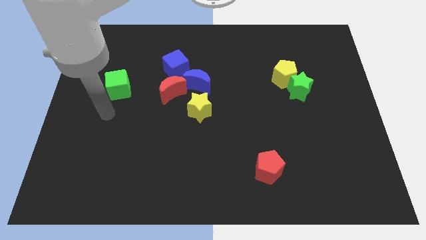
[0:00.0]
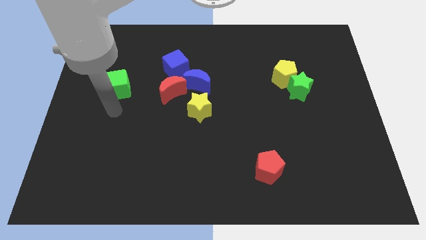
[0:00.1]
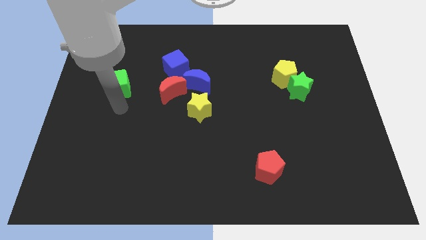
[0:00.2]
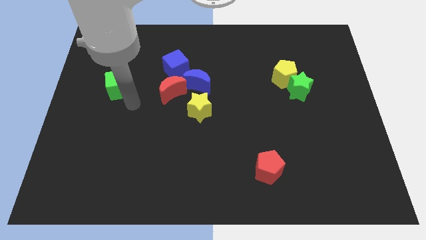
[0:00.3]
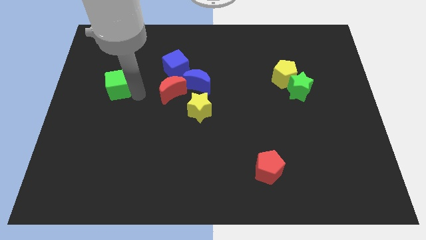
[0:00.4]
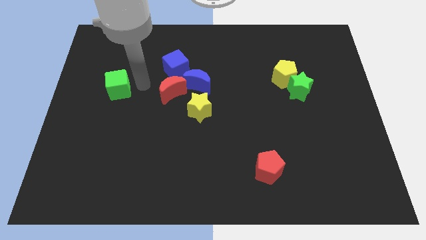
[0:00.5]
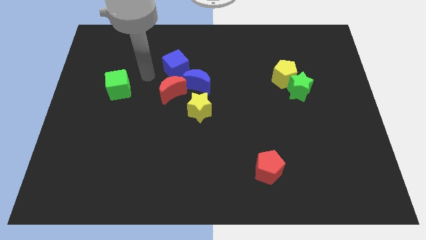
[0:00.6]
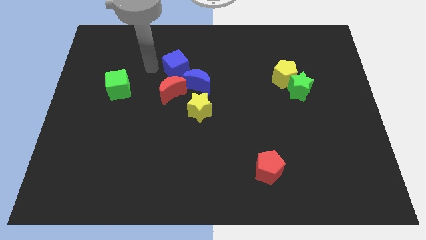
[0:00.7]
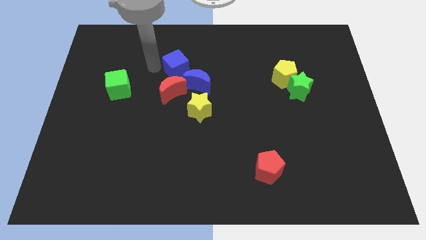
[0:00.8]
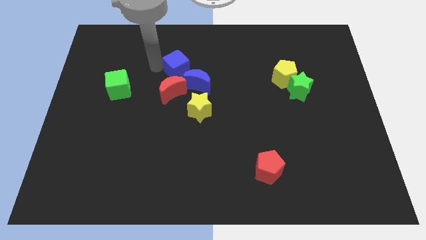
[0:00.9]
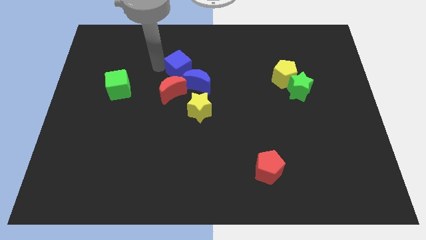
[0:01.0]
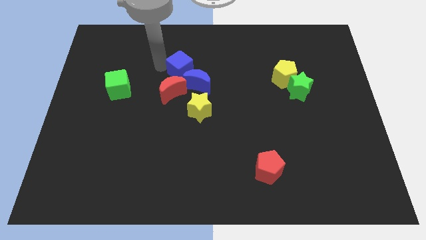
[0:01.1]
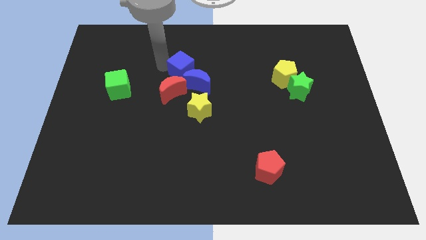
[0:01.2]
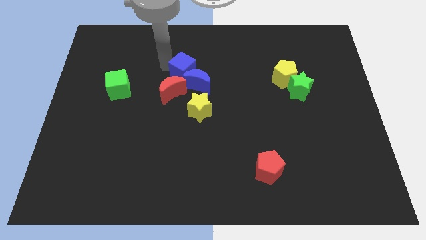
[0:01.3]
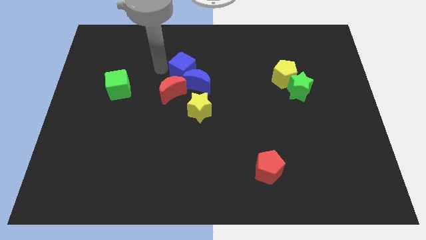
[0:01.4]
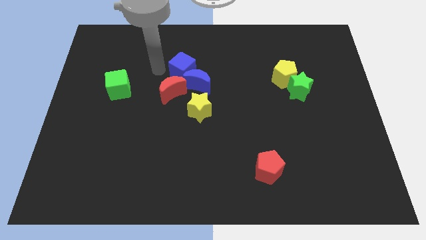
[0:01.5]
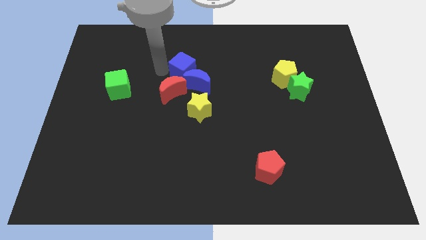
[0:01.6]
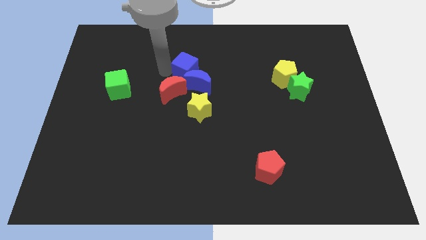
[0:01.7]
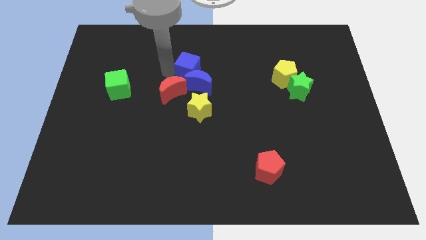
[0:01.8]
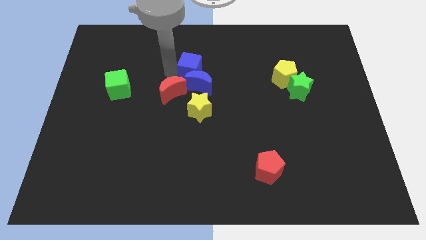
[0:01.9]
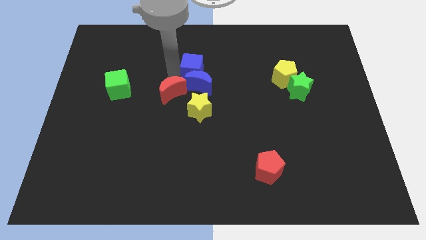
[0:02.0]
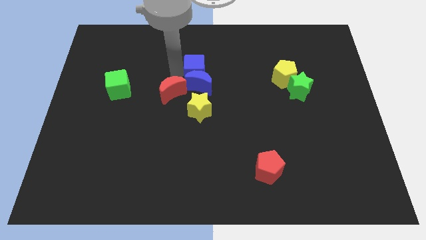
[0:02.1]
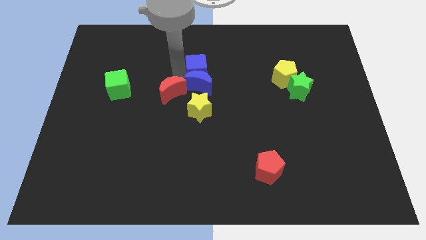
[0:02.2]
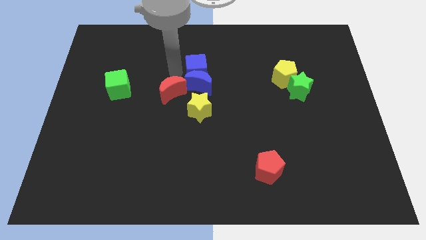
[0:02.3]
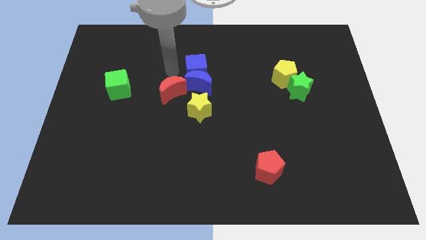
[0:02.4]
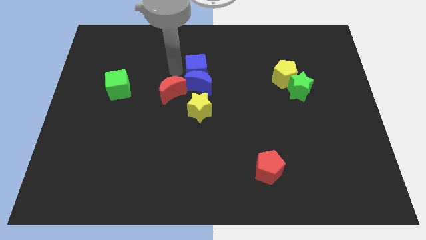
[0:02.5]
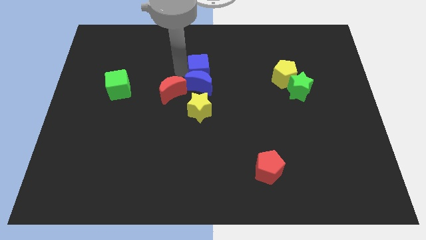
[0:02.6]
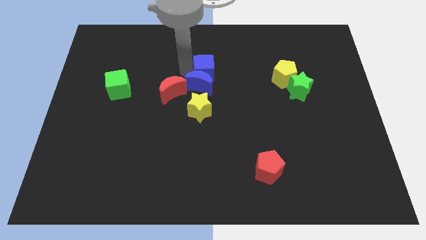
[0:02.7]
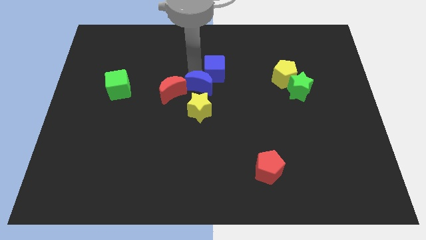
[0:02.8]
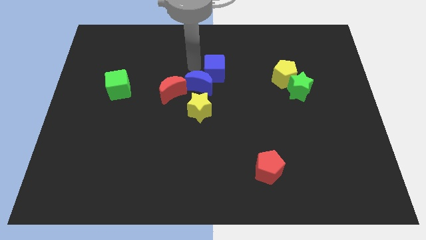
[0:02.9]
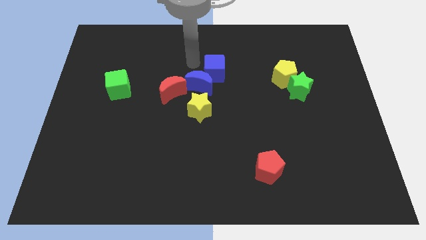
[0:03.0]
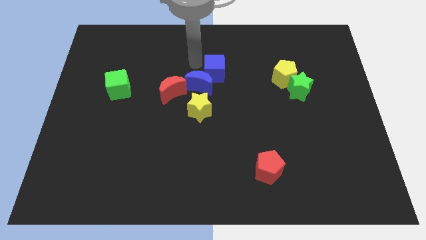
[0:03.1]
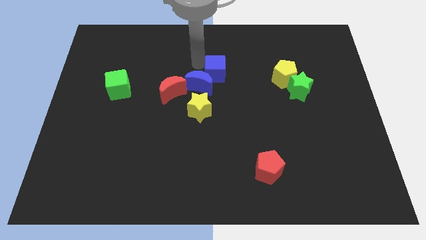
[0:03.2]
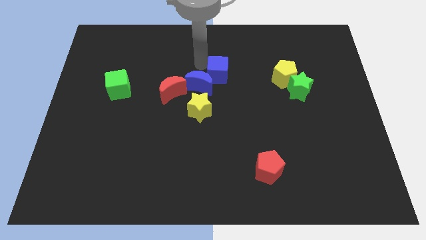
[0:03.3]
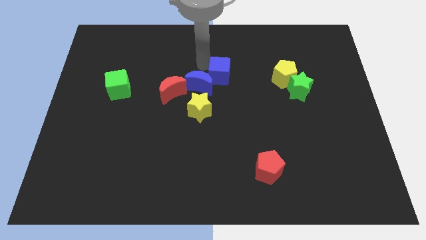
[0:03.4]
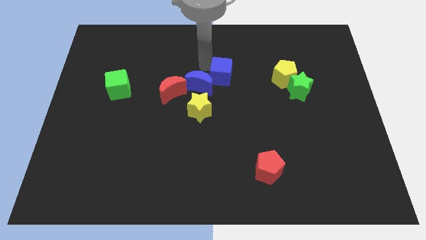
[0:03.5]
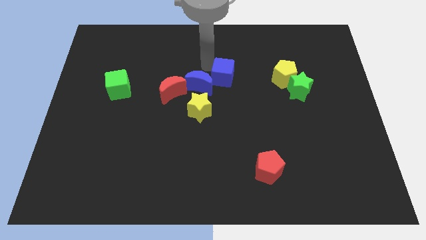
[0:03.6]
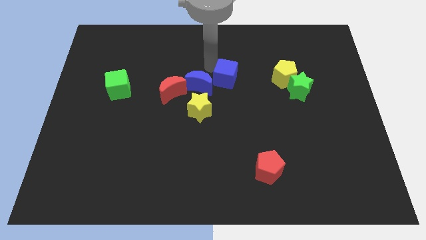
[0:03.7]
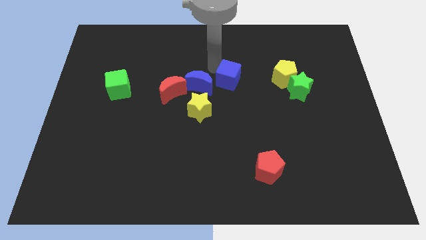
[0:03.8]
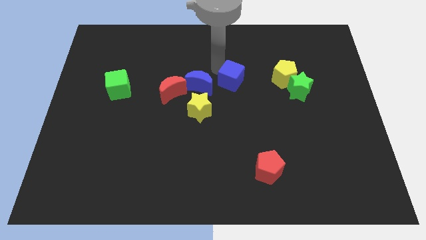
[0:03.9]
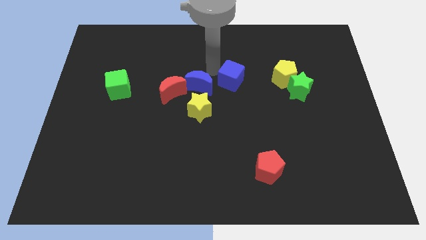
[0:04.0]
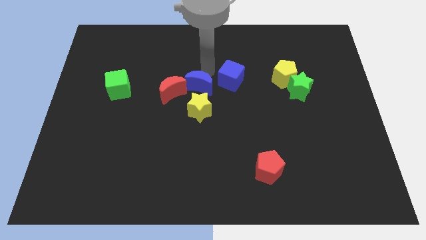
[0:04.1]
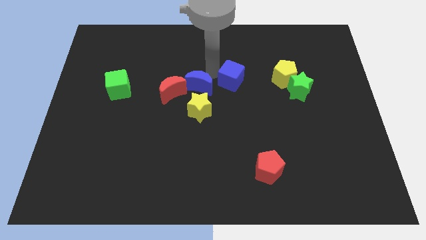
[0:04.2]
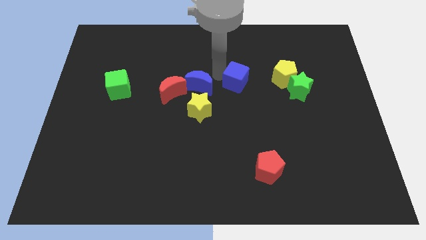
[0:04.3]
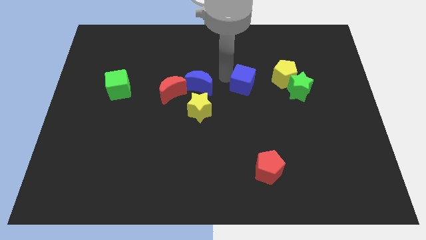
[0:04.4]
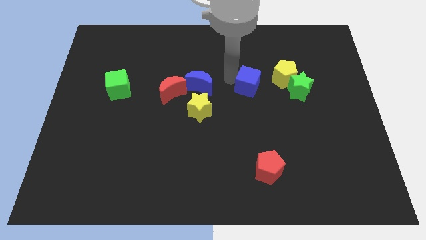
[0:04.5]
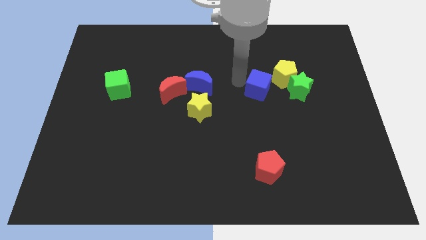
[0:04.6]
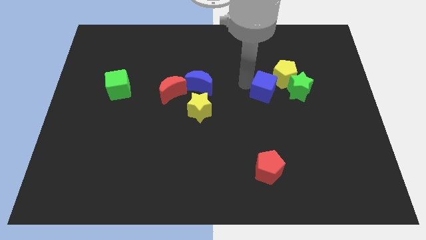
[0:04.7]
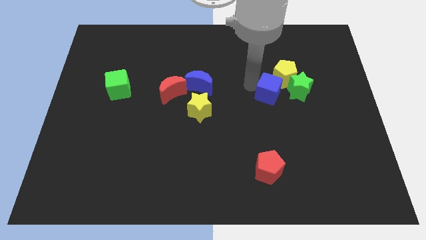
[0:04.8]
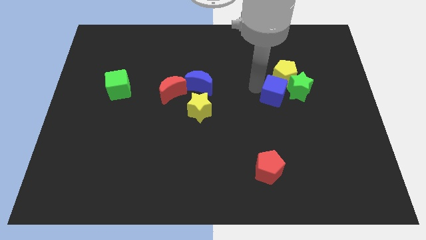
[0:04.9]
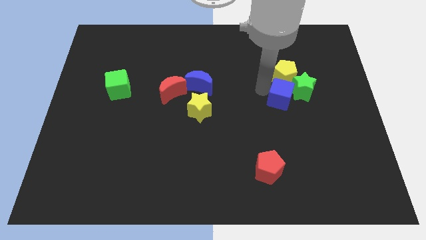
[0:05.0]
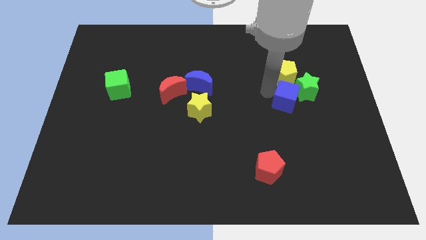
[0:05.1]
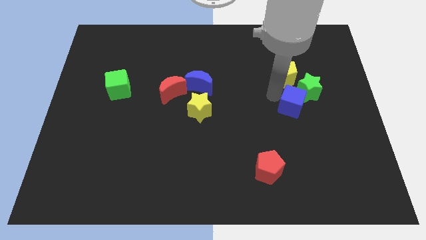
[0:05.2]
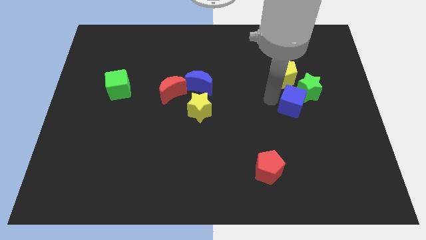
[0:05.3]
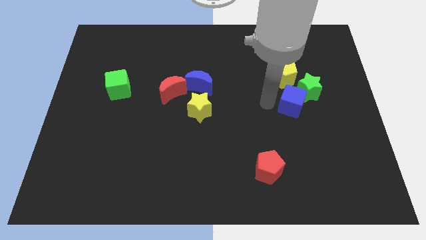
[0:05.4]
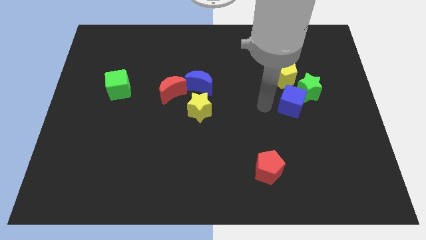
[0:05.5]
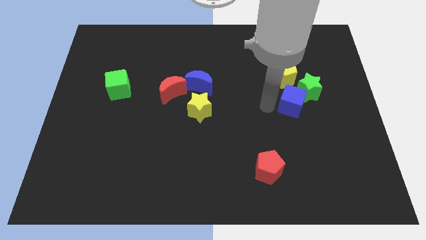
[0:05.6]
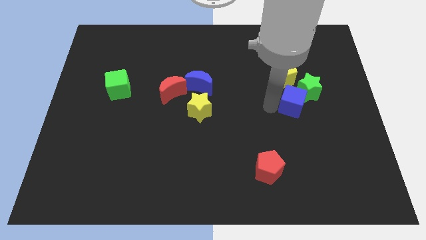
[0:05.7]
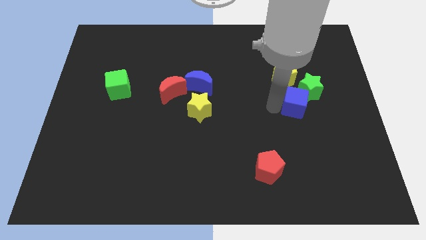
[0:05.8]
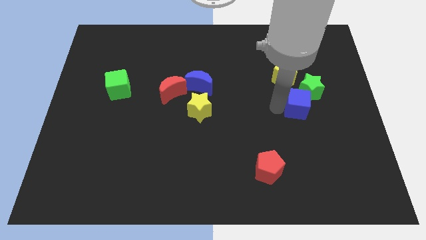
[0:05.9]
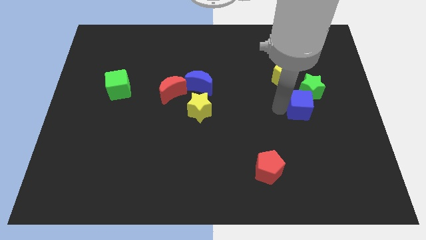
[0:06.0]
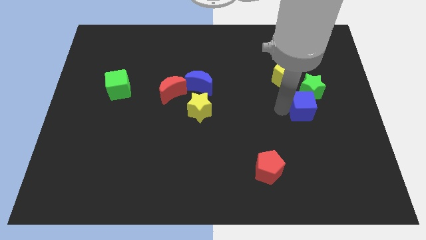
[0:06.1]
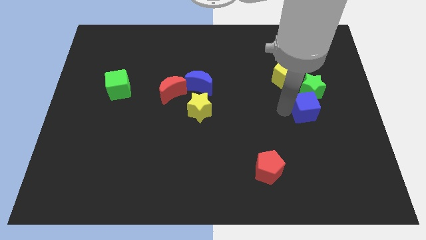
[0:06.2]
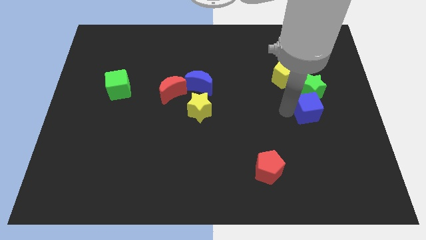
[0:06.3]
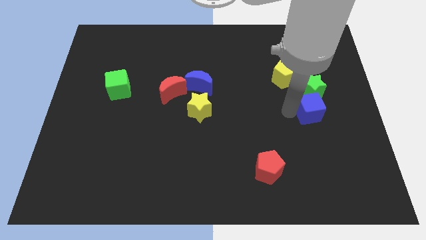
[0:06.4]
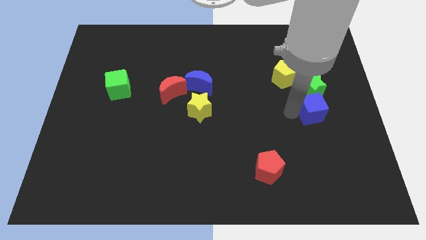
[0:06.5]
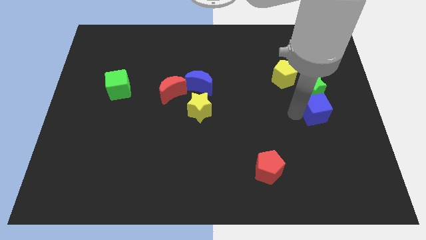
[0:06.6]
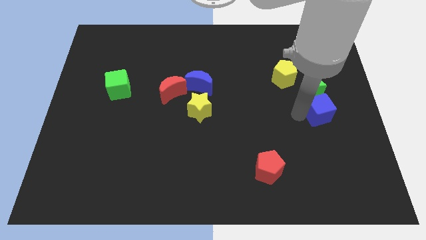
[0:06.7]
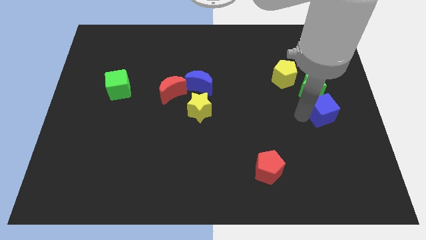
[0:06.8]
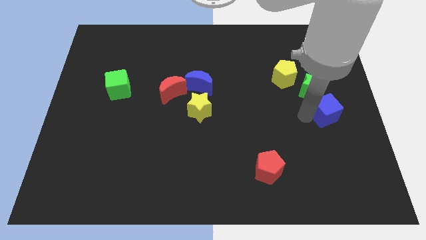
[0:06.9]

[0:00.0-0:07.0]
slide the blue cube to the right side of the board

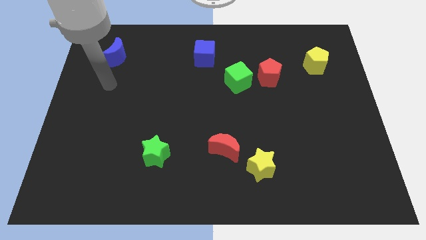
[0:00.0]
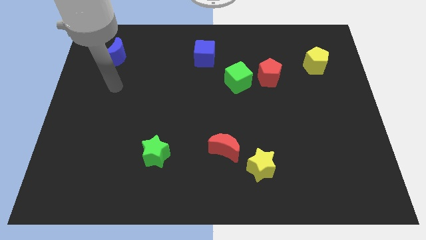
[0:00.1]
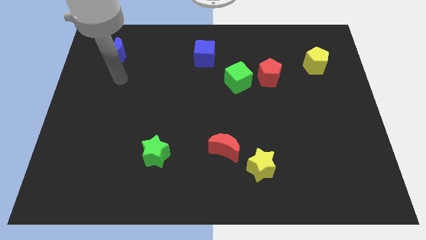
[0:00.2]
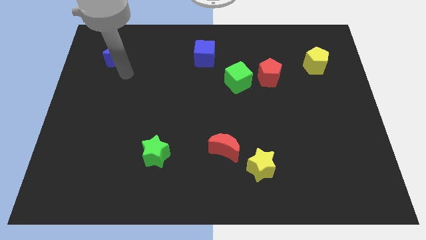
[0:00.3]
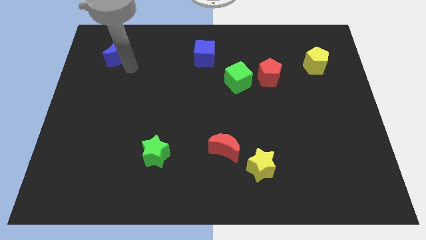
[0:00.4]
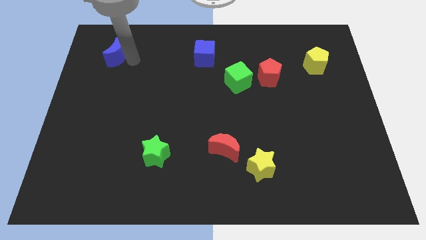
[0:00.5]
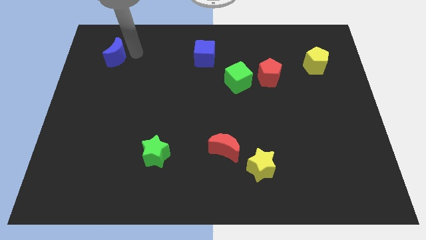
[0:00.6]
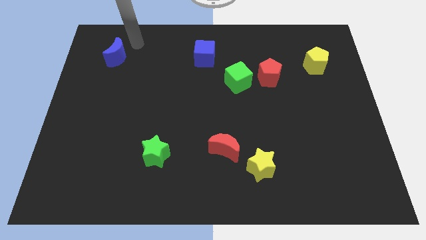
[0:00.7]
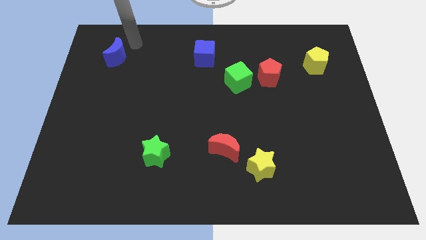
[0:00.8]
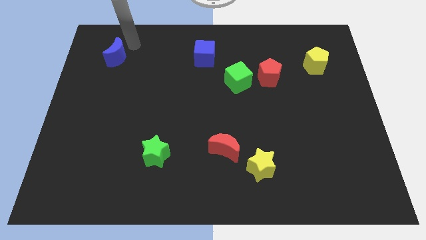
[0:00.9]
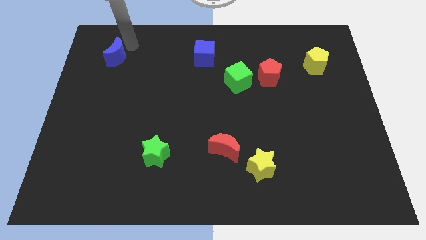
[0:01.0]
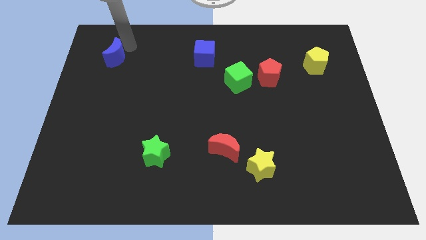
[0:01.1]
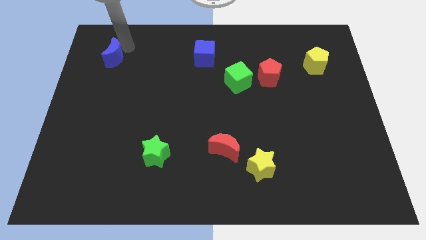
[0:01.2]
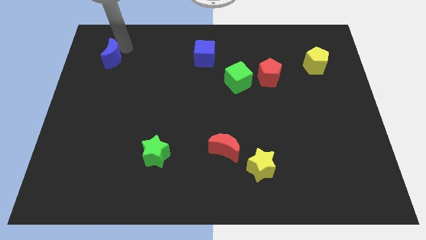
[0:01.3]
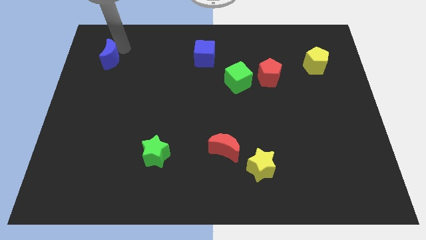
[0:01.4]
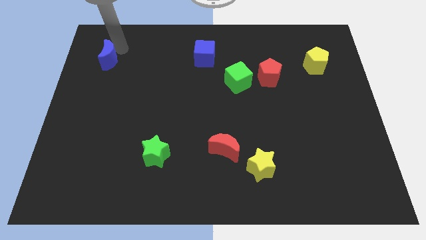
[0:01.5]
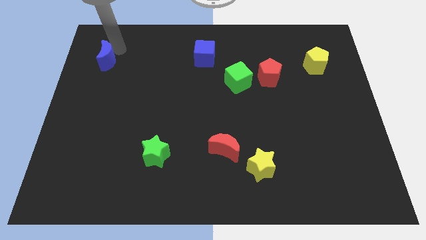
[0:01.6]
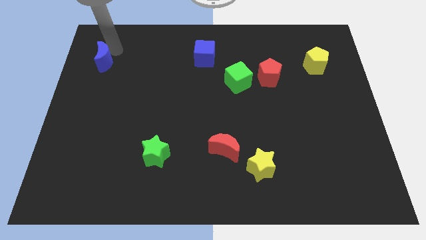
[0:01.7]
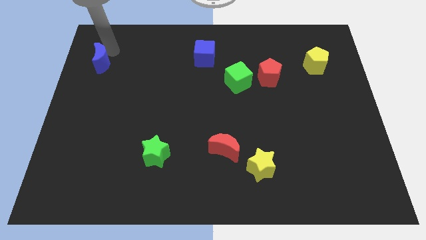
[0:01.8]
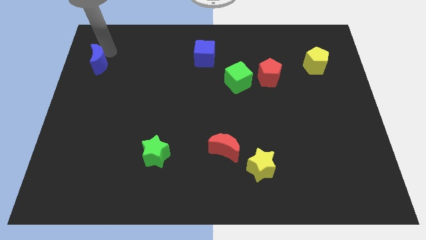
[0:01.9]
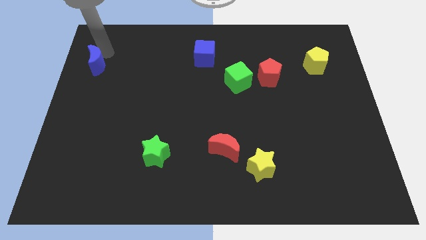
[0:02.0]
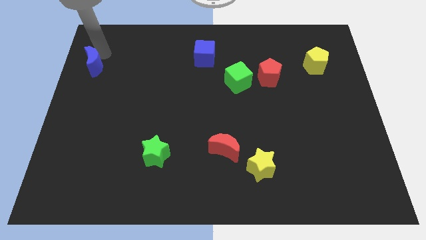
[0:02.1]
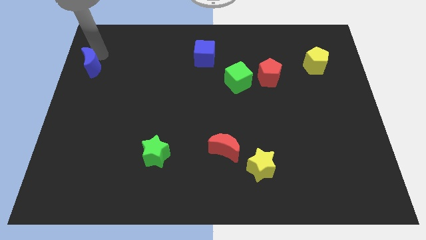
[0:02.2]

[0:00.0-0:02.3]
put the blue moon to the center left
